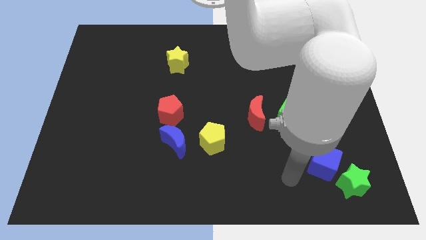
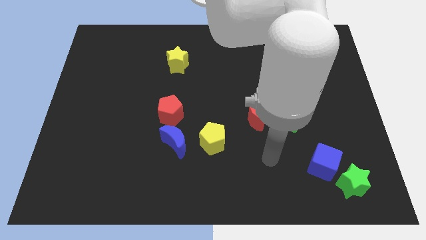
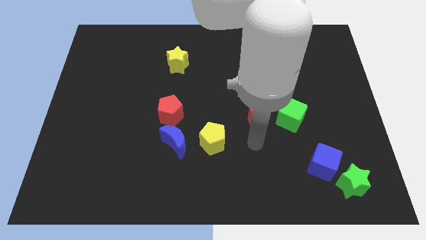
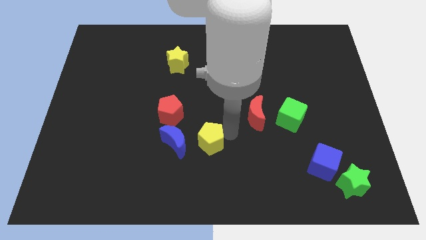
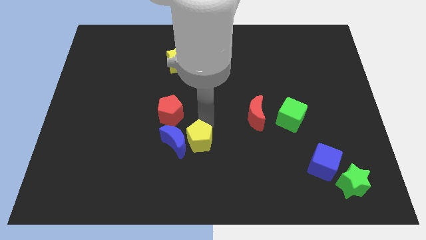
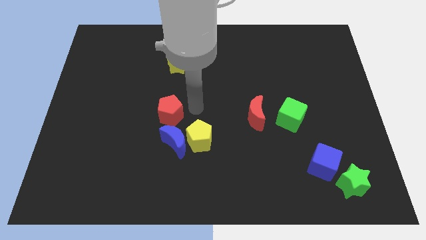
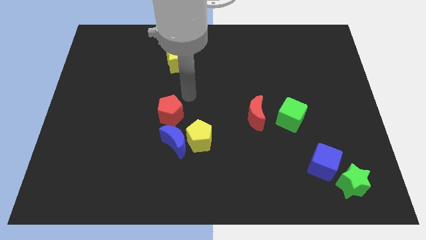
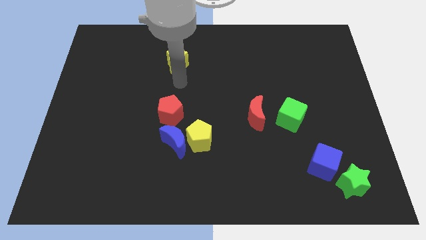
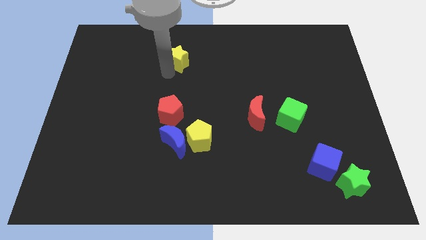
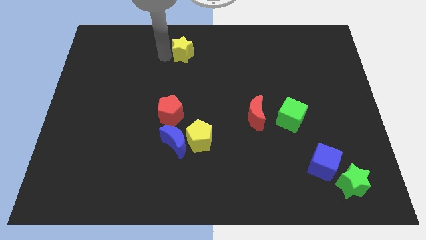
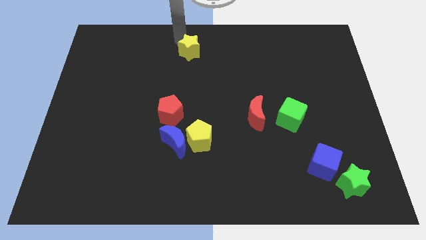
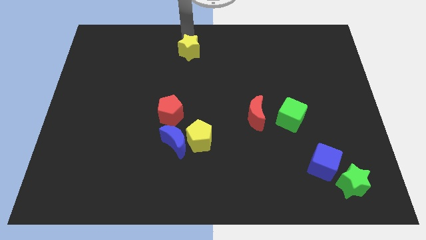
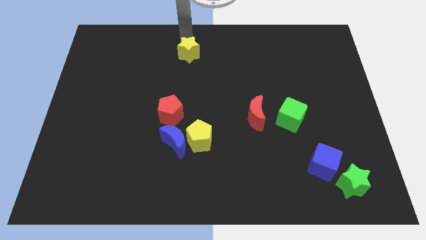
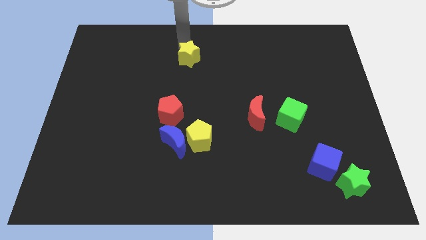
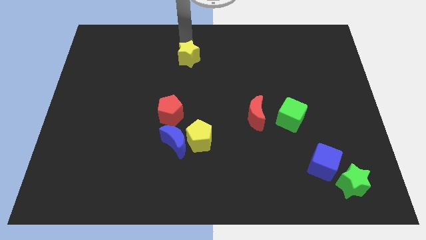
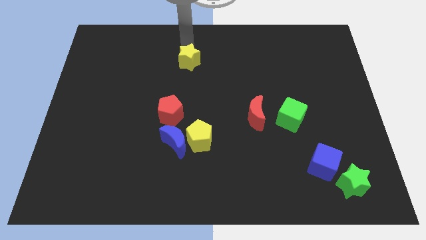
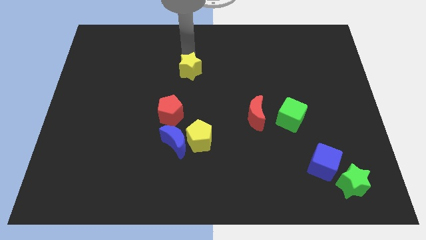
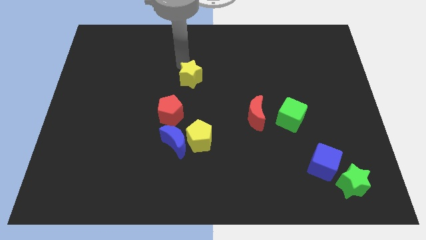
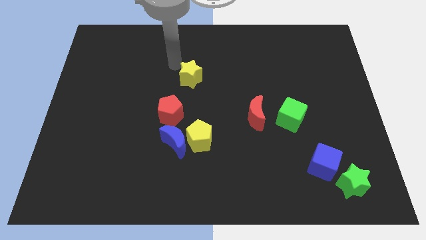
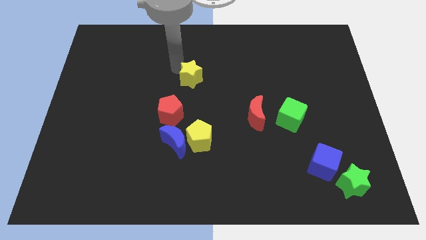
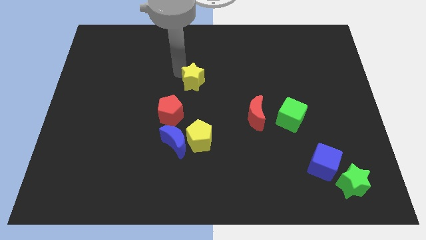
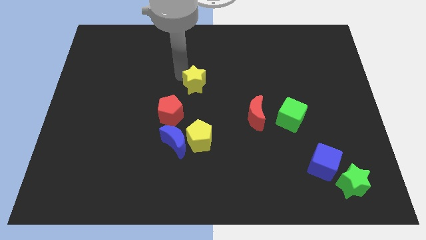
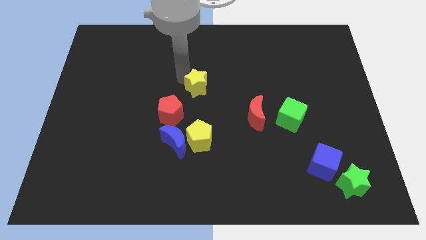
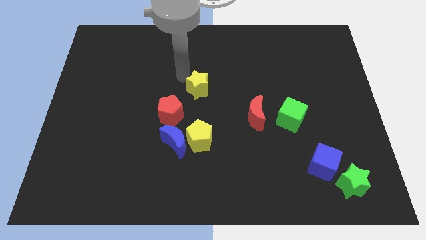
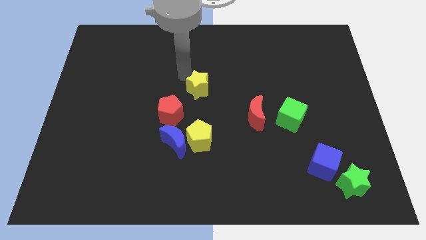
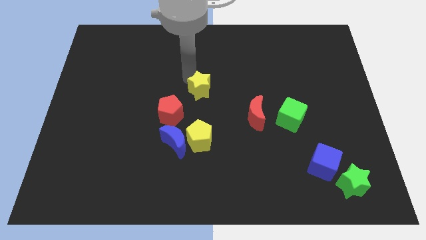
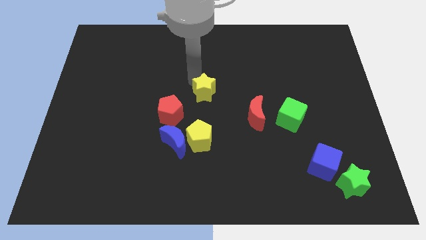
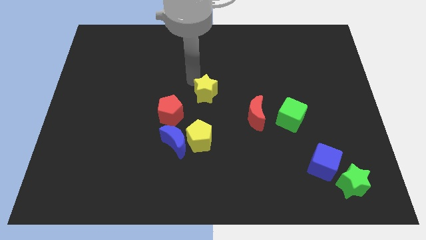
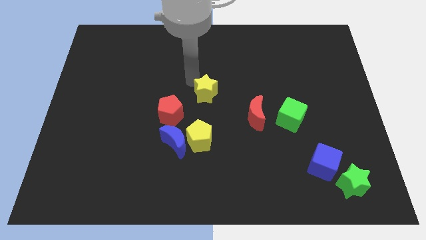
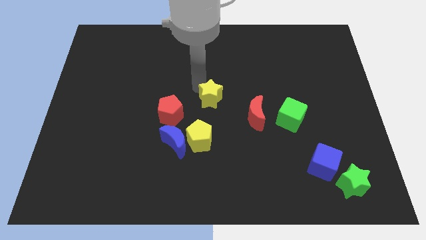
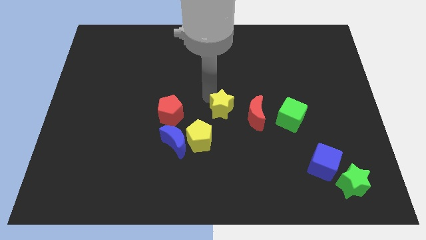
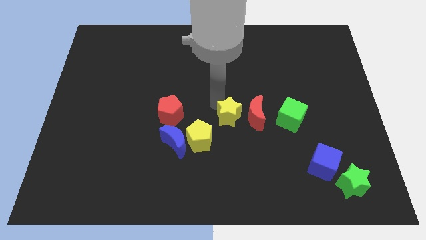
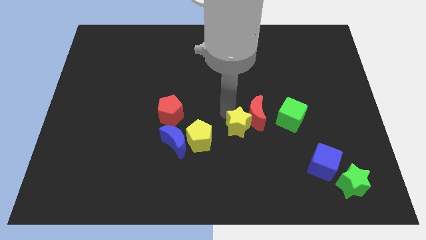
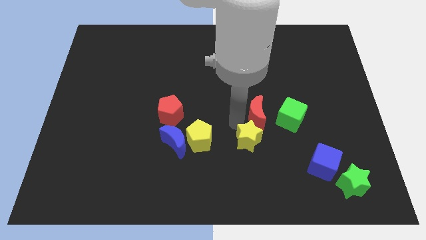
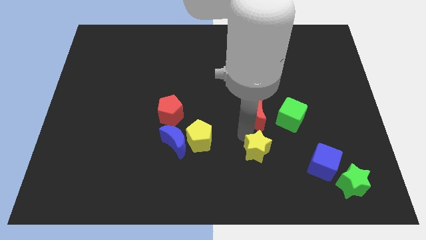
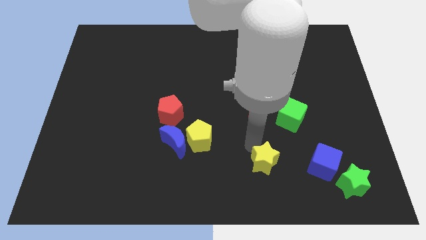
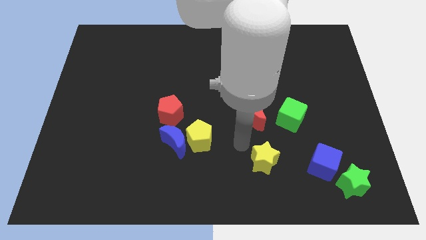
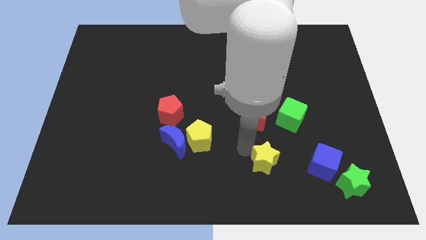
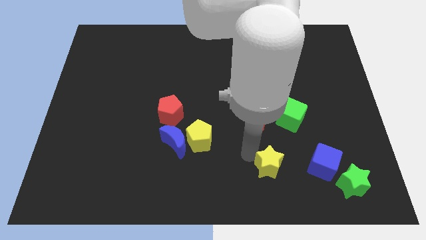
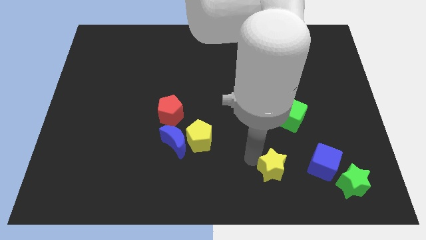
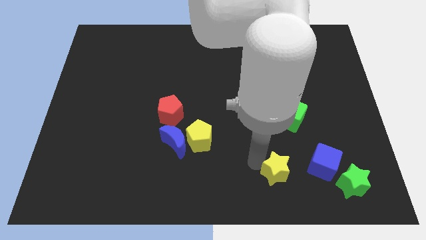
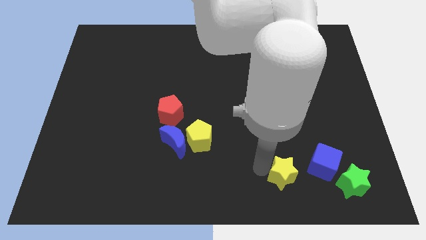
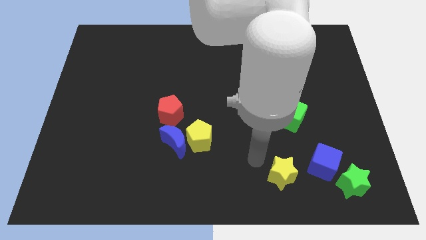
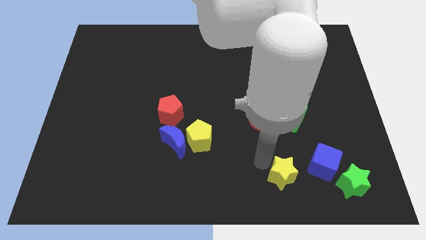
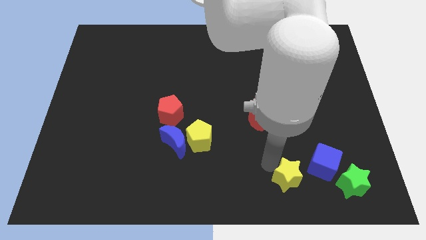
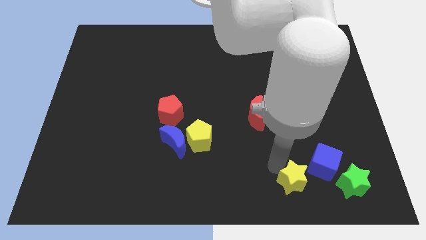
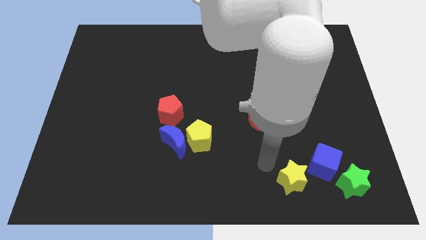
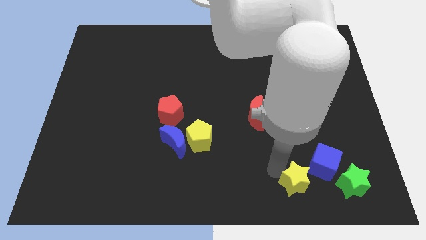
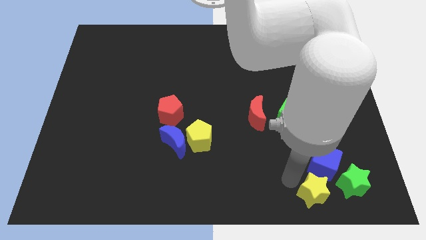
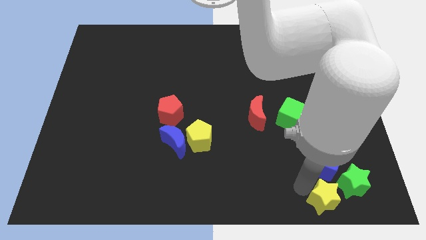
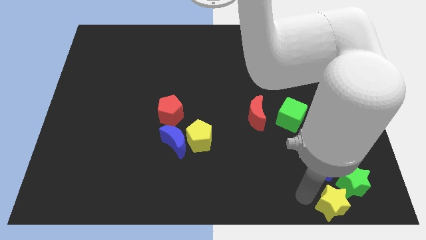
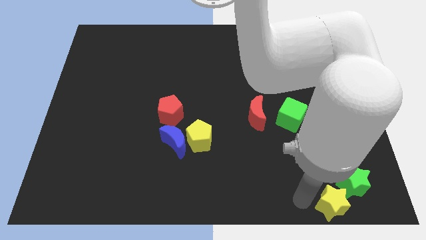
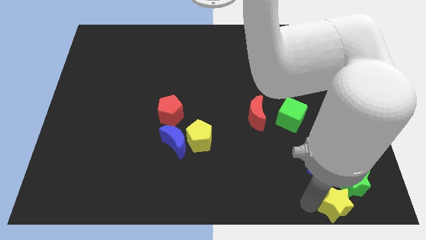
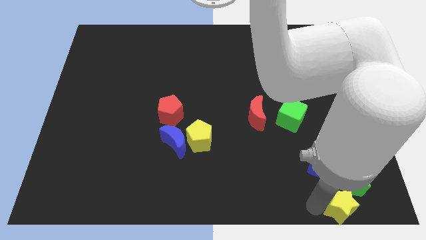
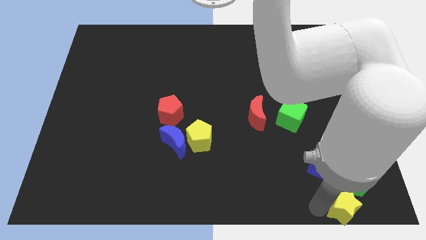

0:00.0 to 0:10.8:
push the yellow star to the lower right corner
